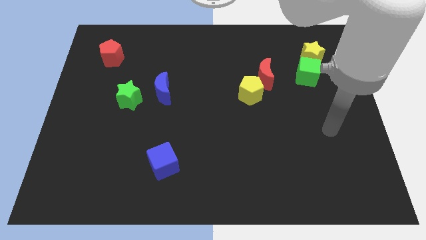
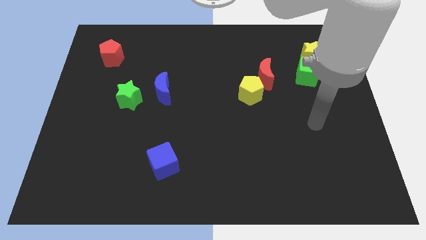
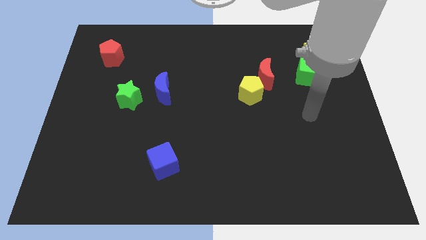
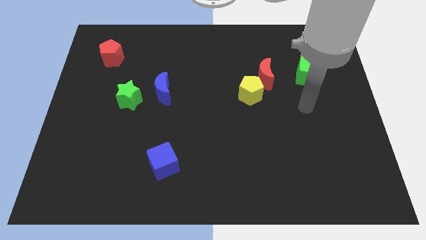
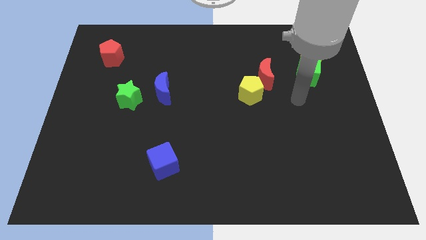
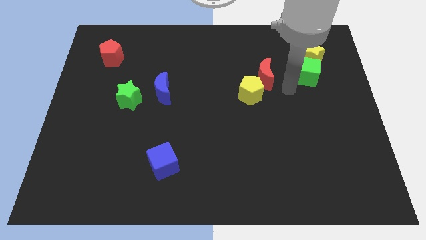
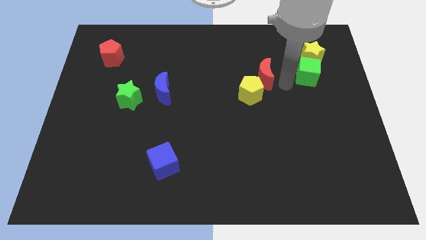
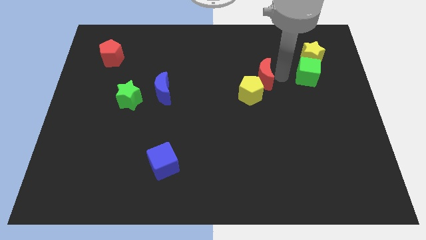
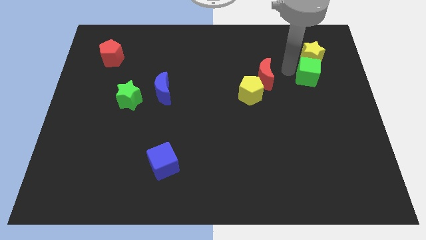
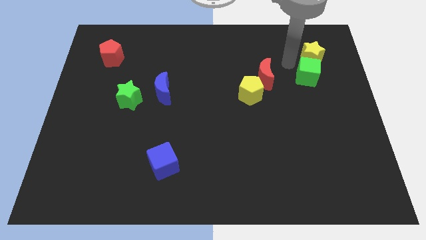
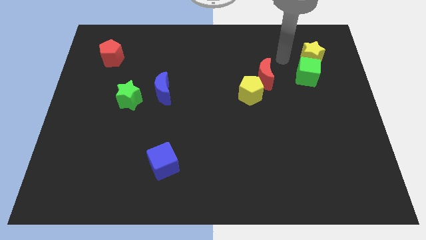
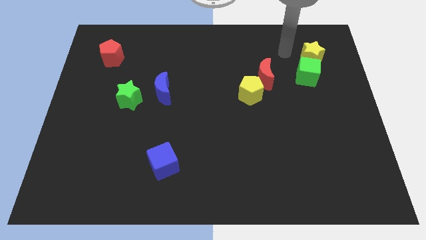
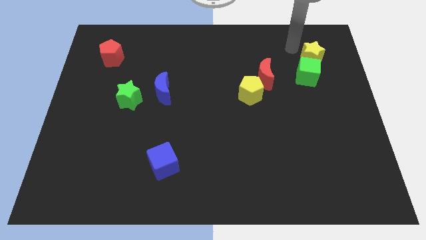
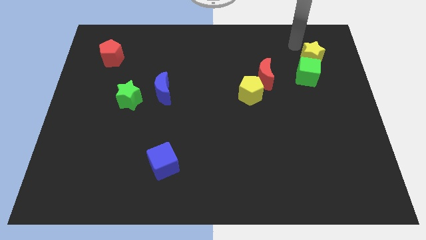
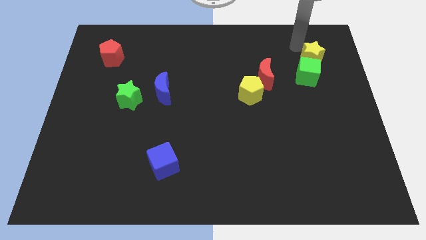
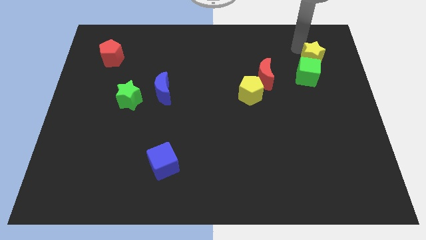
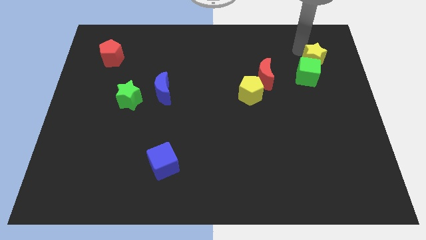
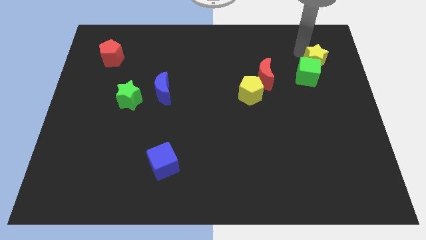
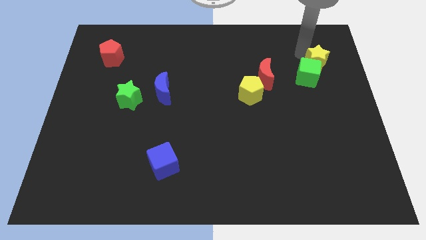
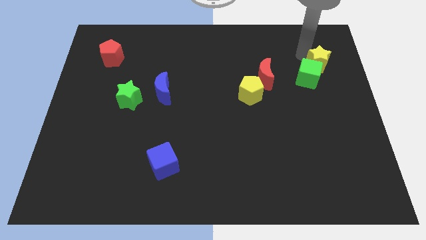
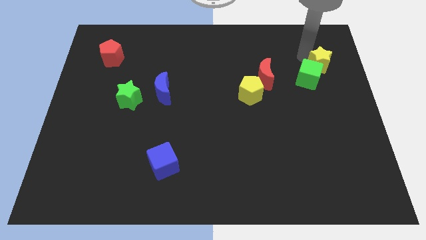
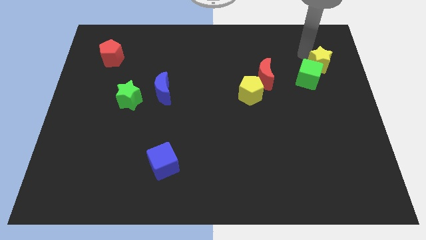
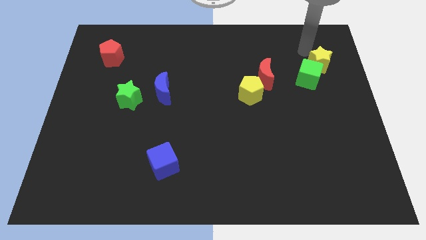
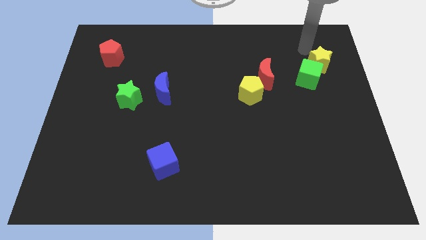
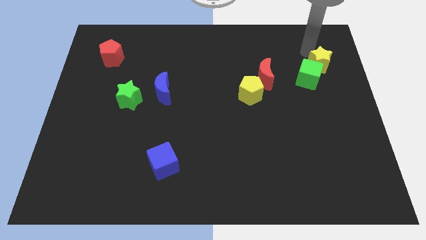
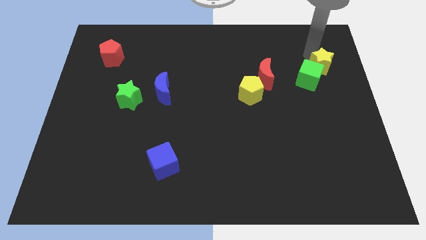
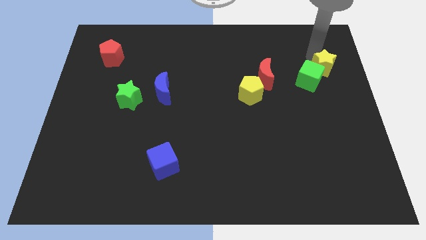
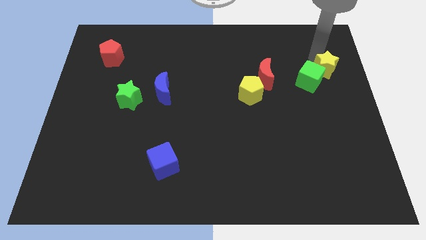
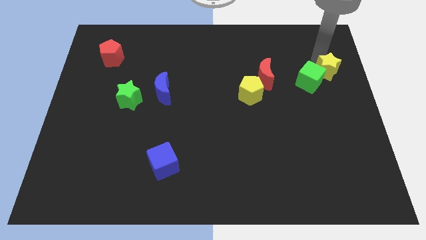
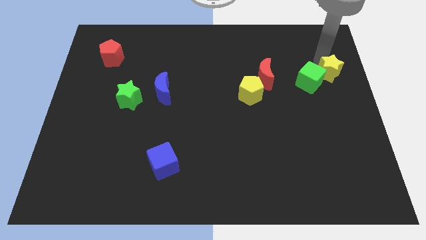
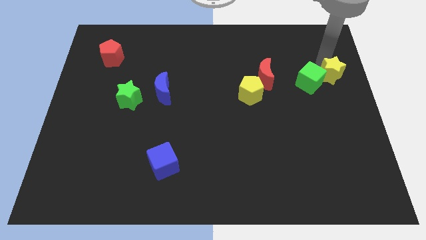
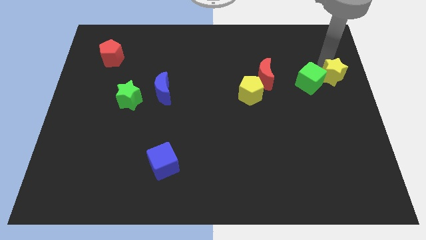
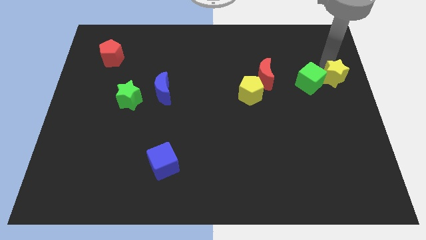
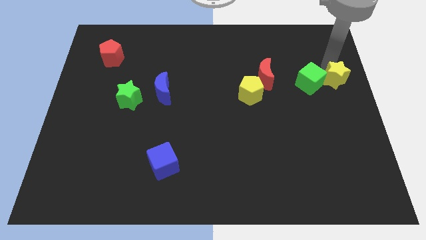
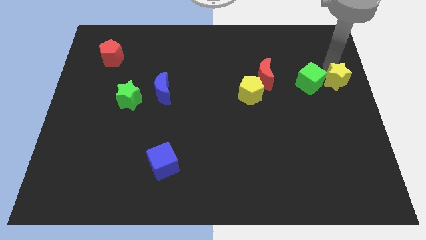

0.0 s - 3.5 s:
slightly slide the yellow star down

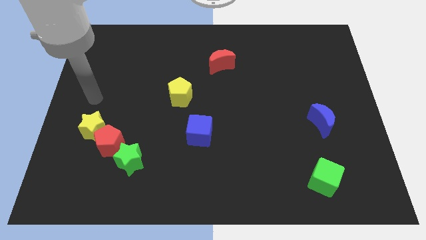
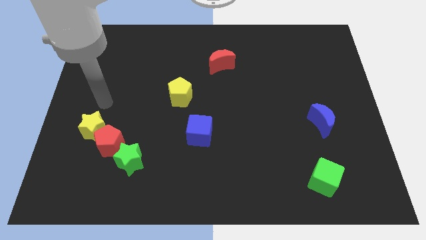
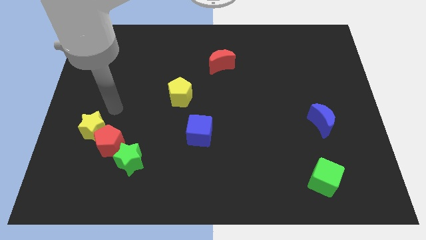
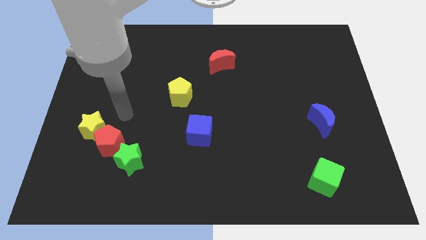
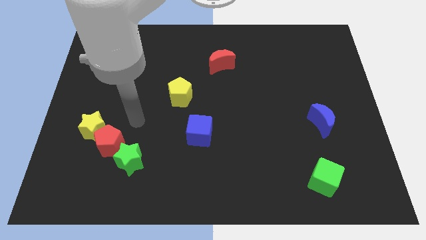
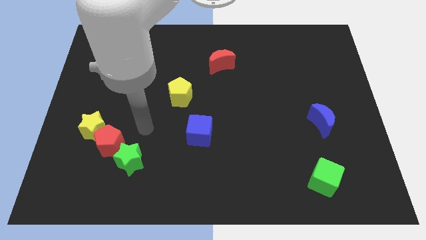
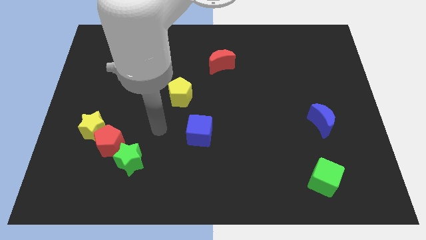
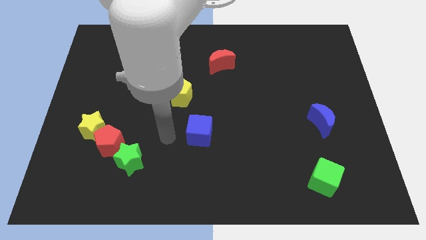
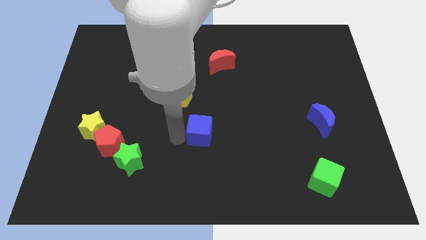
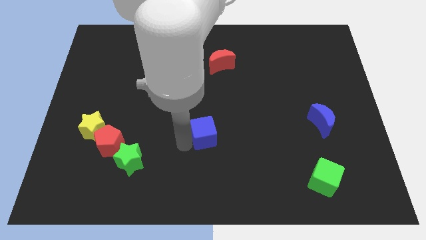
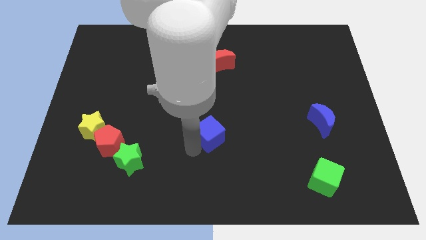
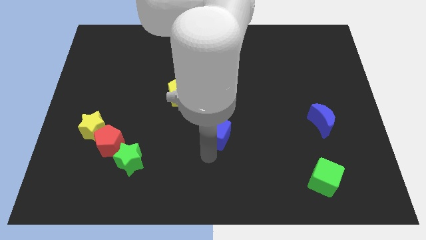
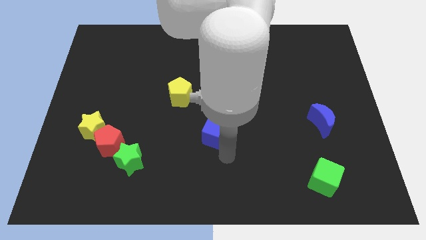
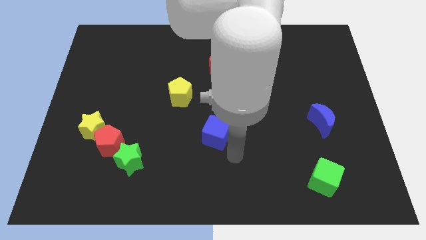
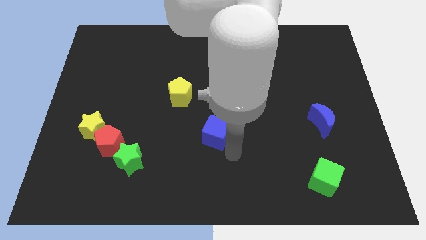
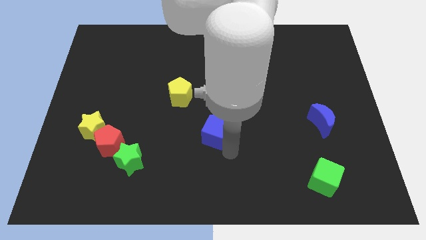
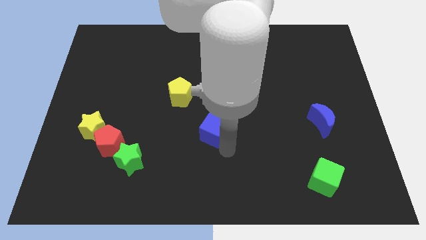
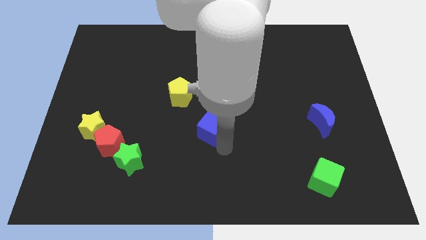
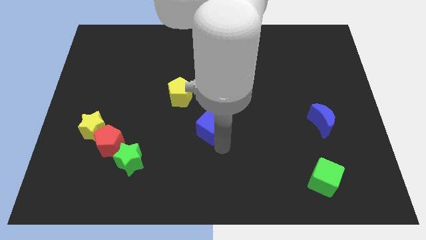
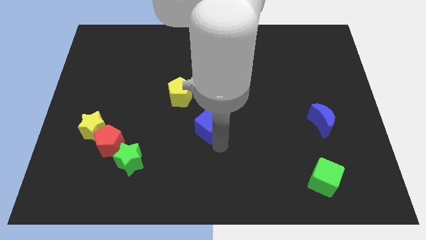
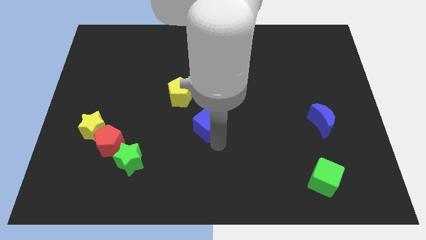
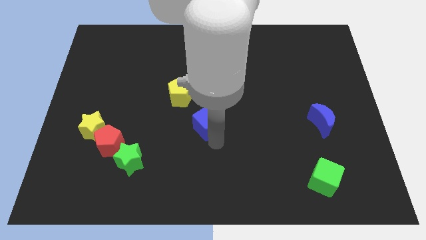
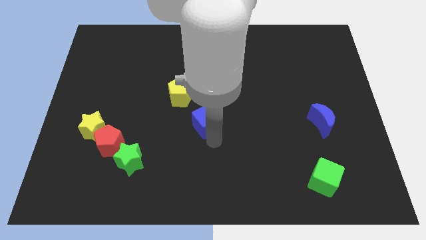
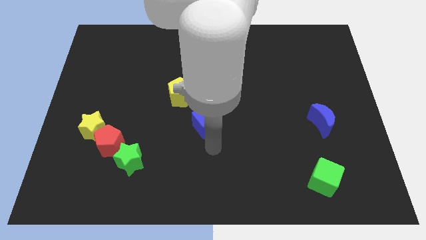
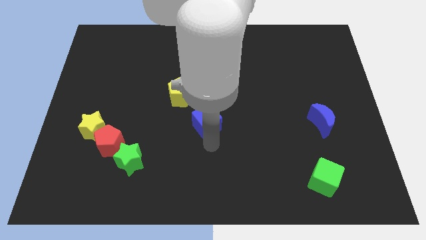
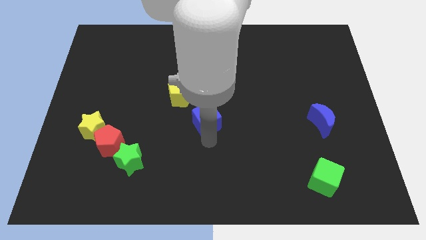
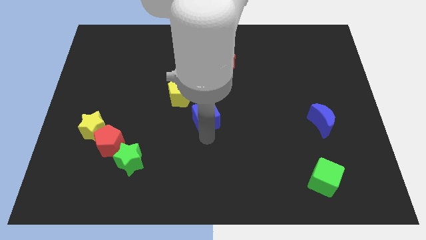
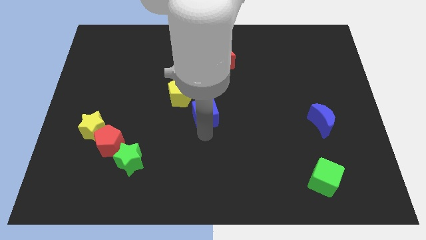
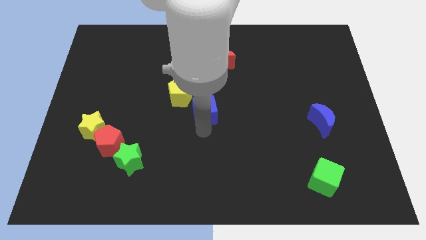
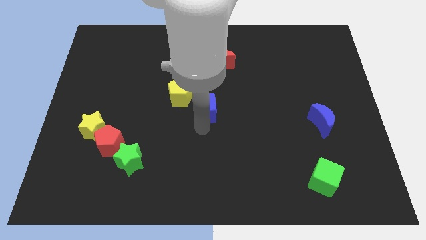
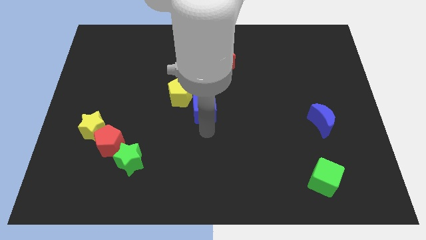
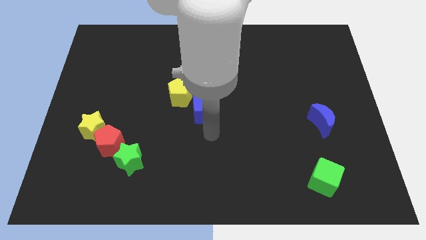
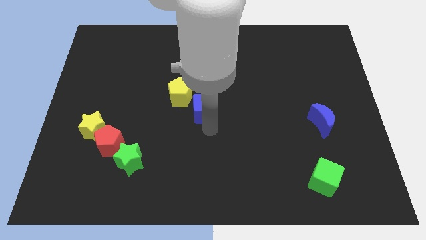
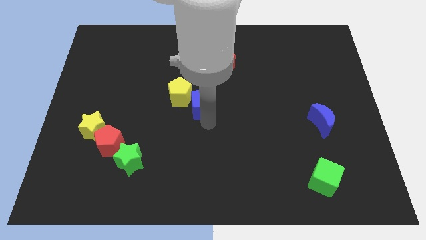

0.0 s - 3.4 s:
move the blue cube slightly upwards

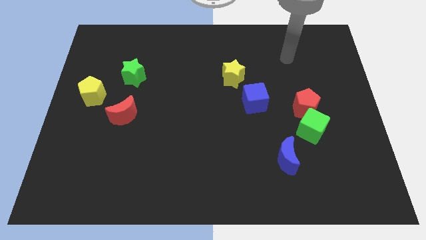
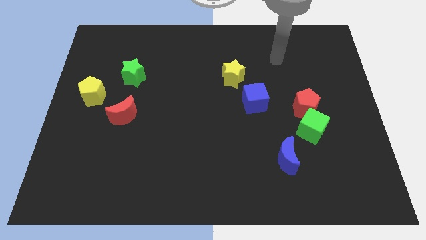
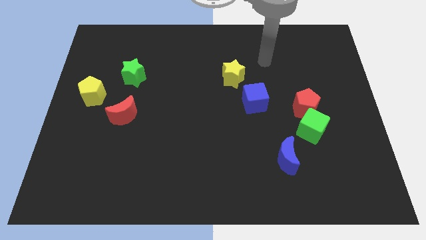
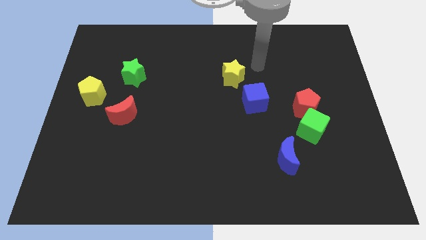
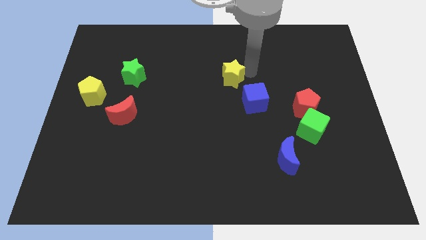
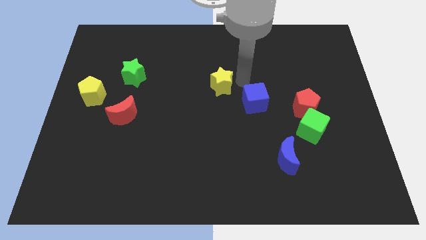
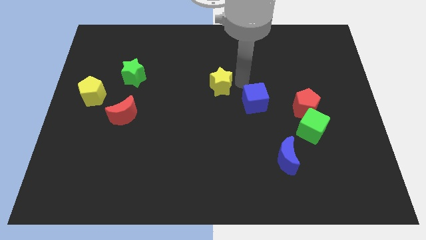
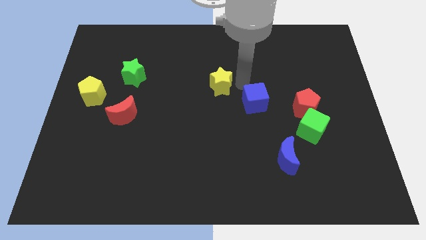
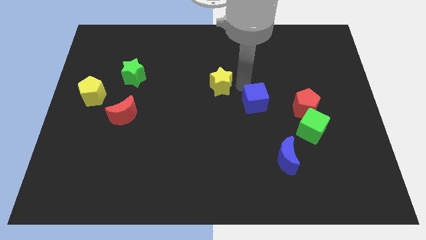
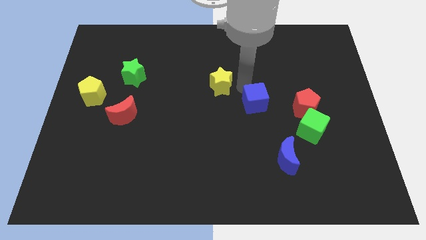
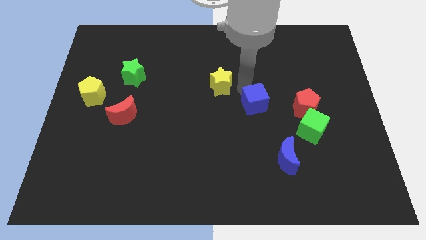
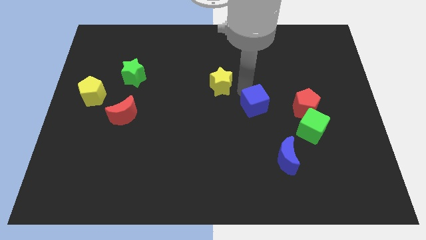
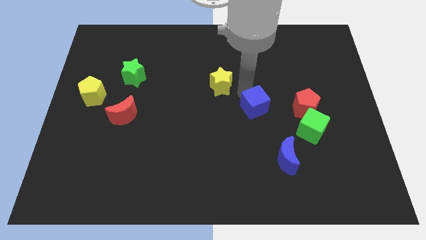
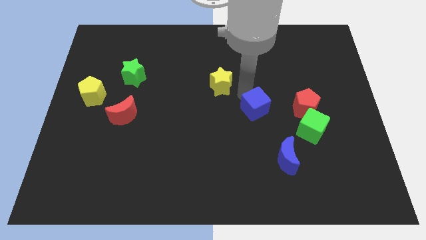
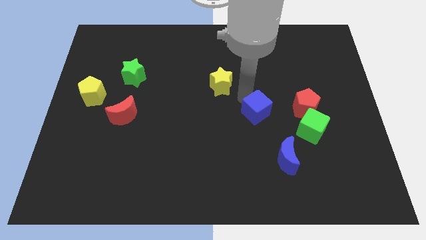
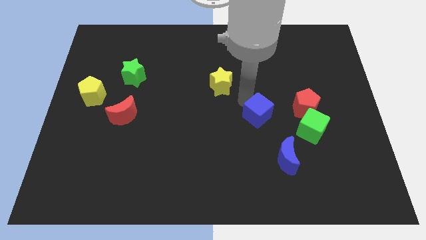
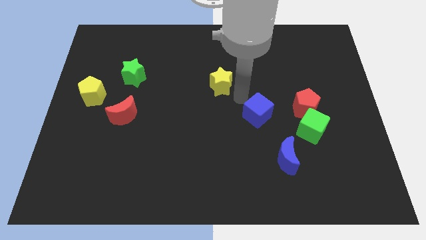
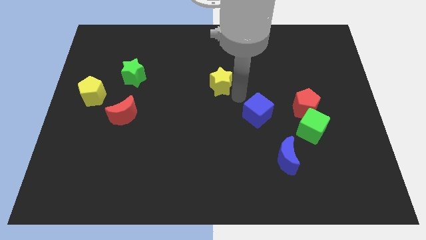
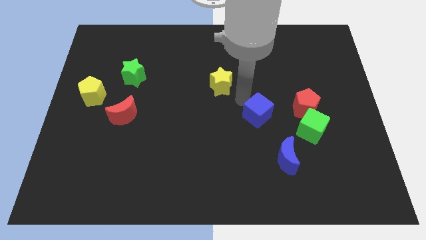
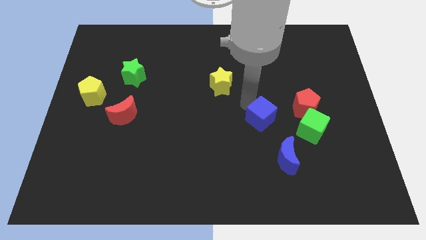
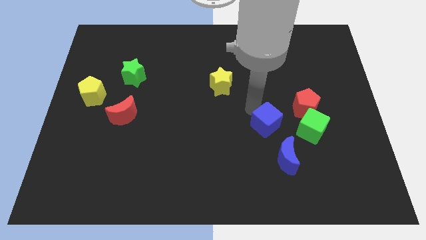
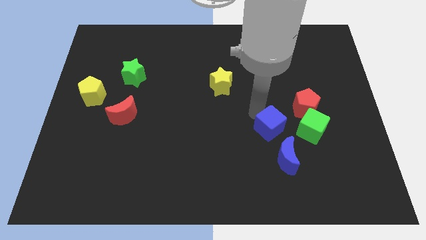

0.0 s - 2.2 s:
push the blue cube a little downwards and then to the right
